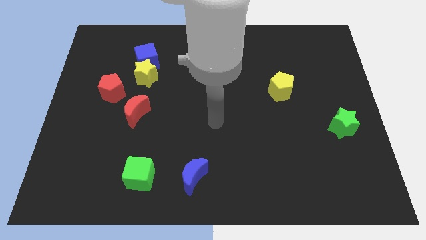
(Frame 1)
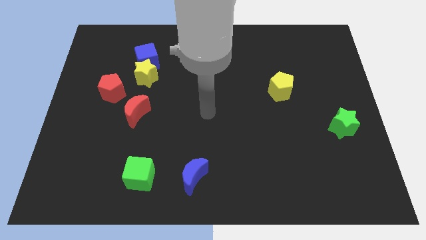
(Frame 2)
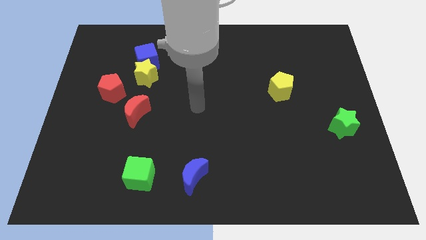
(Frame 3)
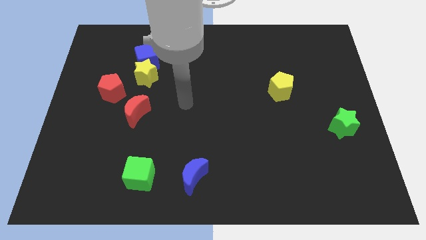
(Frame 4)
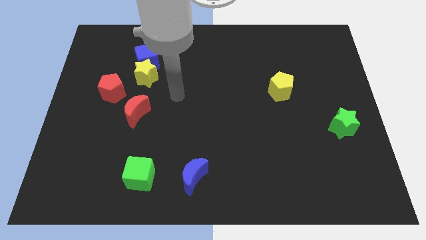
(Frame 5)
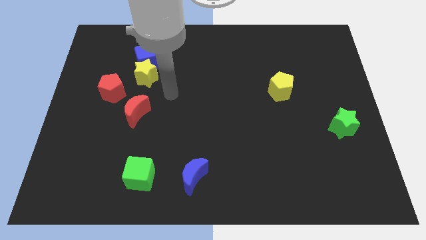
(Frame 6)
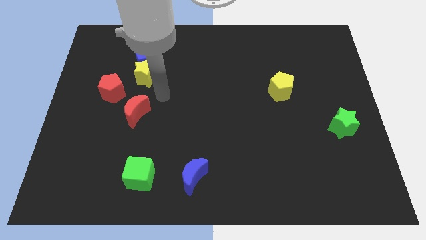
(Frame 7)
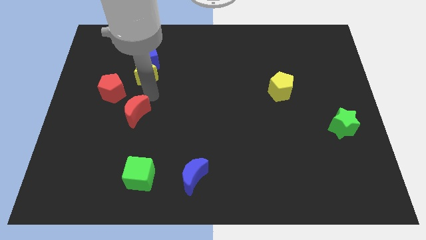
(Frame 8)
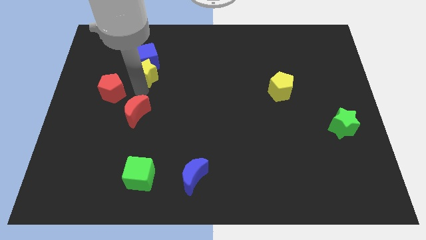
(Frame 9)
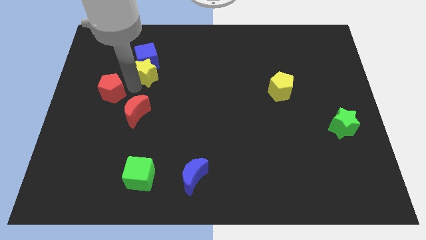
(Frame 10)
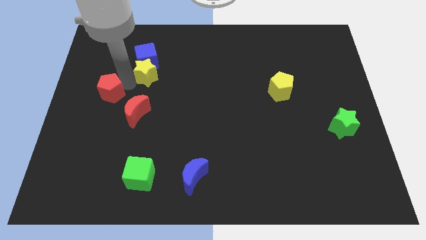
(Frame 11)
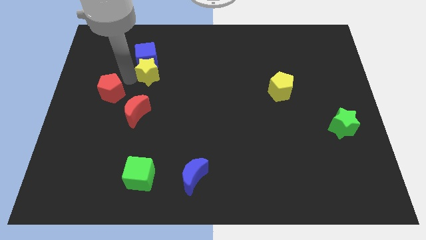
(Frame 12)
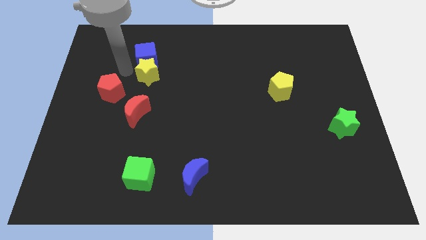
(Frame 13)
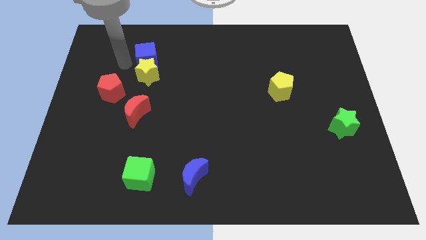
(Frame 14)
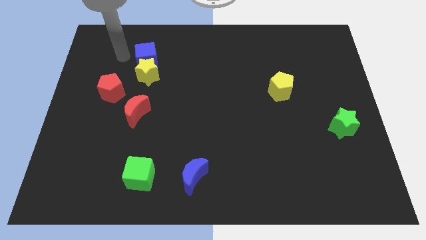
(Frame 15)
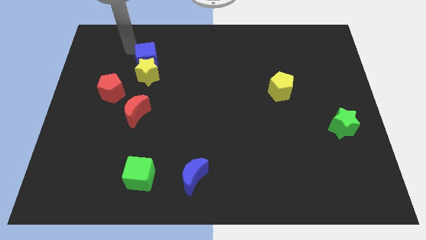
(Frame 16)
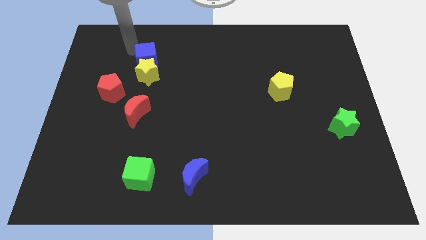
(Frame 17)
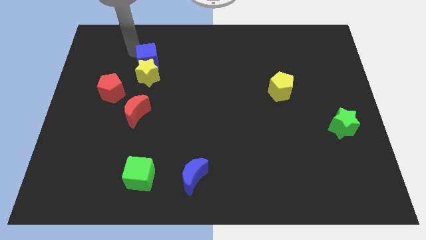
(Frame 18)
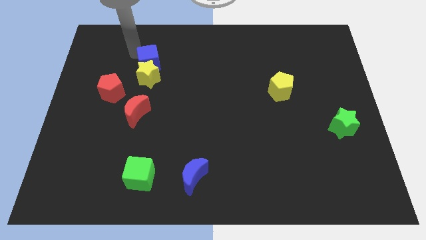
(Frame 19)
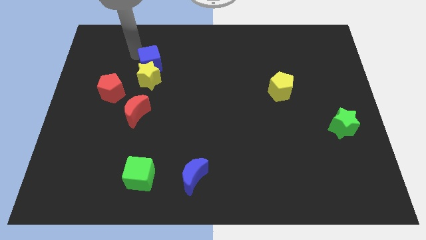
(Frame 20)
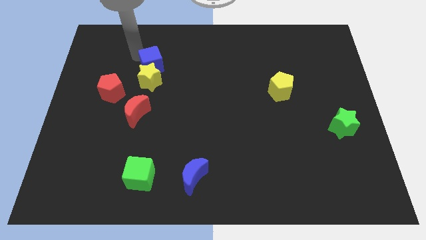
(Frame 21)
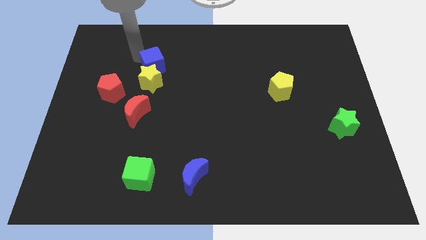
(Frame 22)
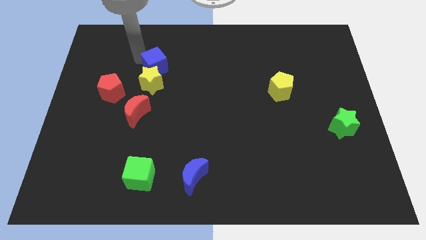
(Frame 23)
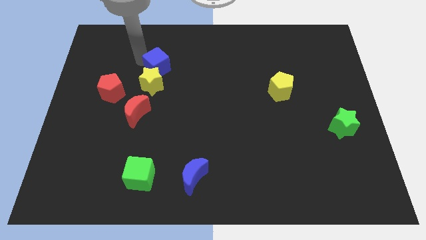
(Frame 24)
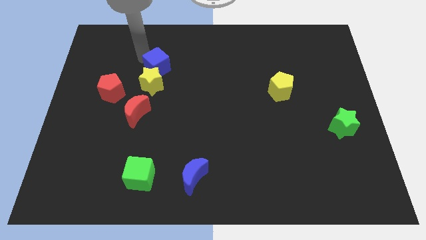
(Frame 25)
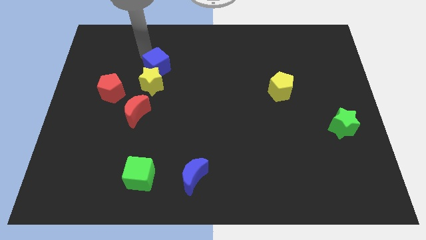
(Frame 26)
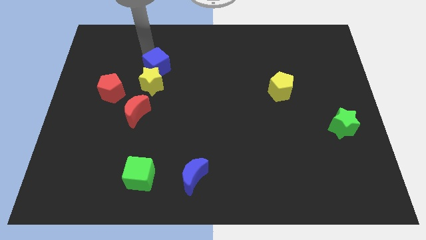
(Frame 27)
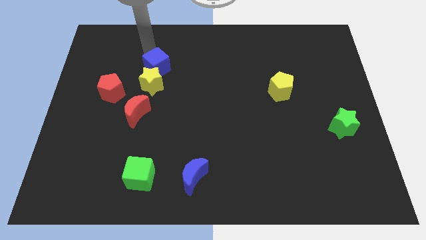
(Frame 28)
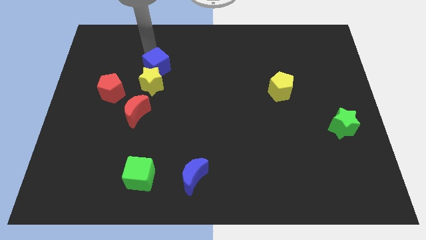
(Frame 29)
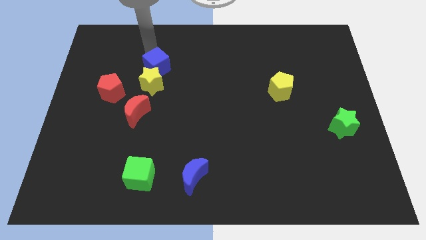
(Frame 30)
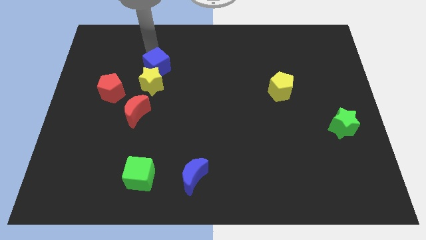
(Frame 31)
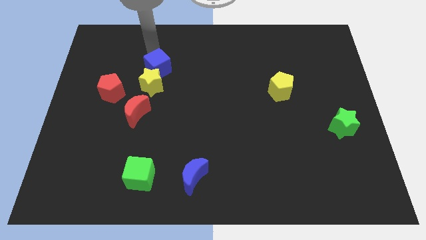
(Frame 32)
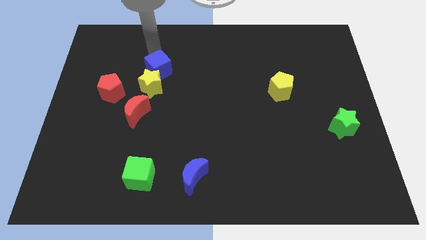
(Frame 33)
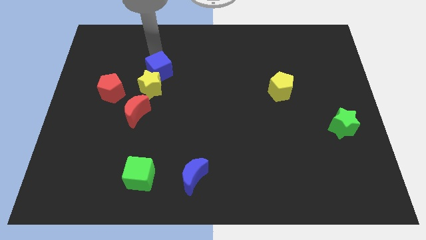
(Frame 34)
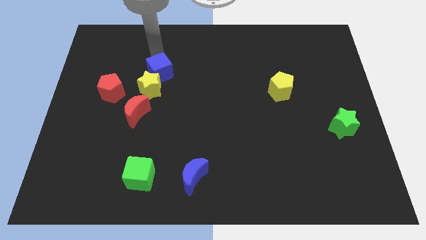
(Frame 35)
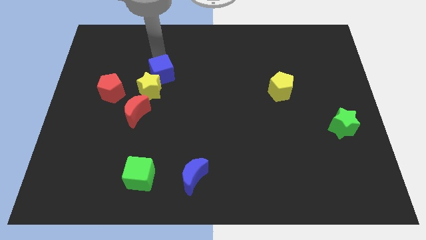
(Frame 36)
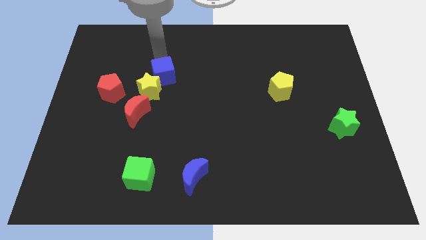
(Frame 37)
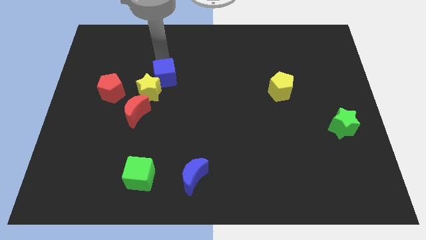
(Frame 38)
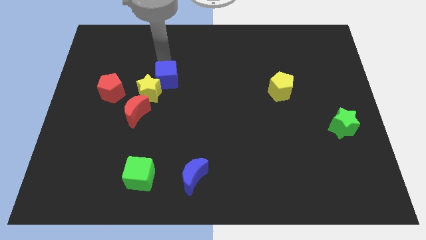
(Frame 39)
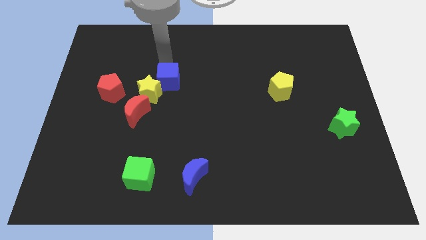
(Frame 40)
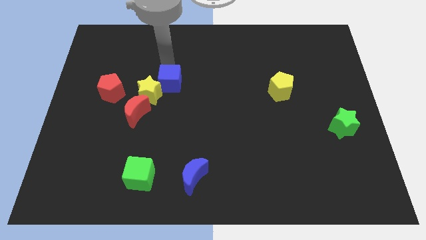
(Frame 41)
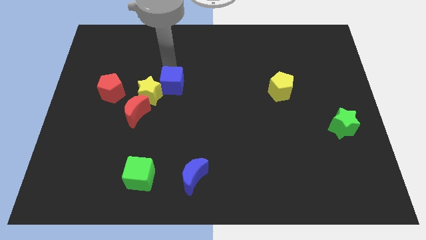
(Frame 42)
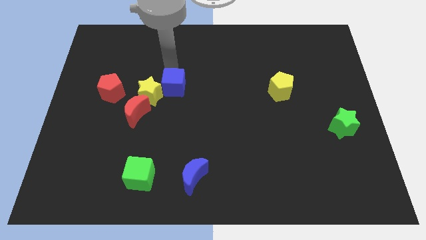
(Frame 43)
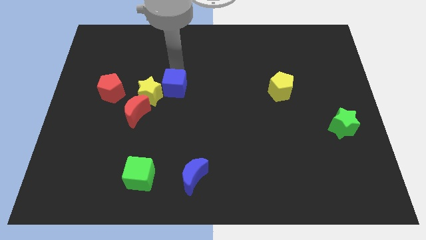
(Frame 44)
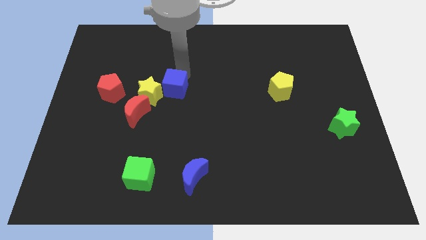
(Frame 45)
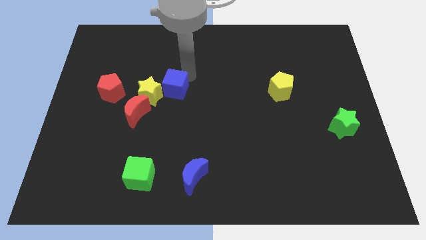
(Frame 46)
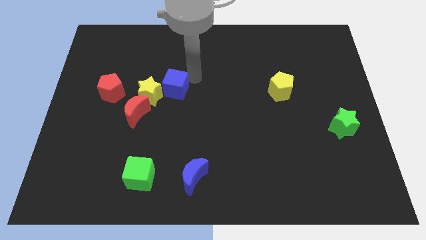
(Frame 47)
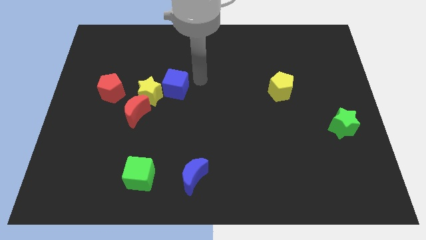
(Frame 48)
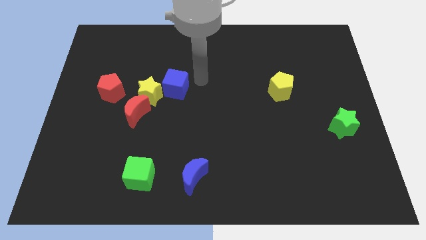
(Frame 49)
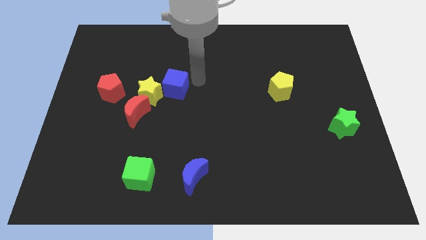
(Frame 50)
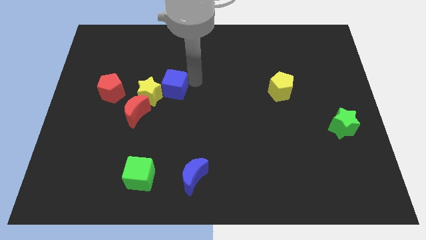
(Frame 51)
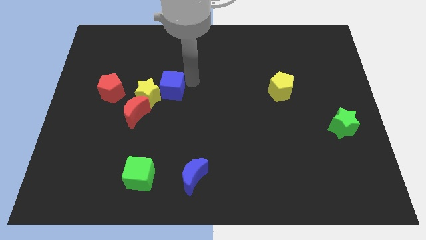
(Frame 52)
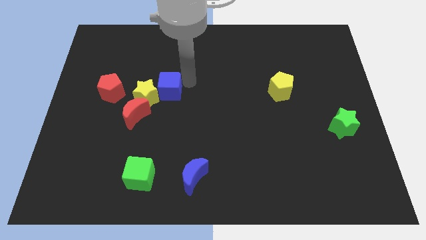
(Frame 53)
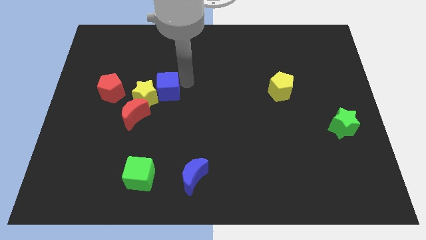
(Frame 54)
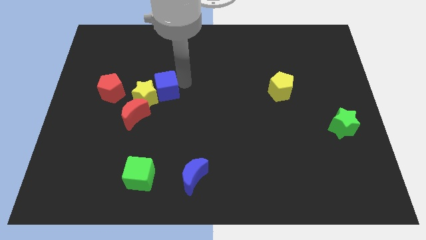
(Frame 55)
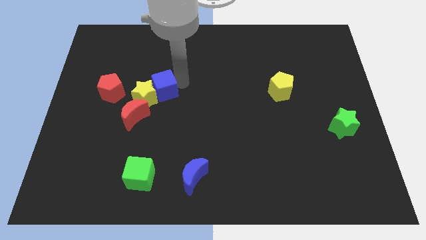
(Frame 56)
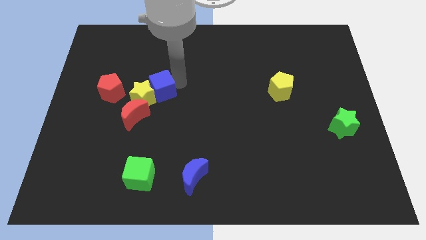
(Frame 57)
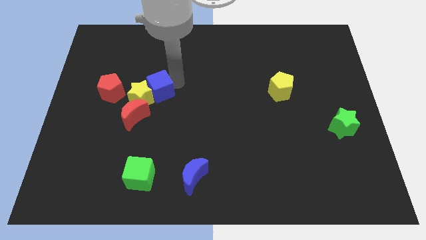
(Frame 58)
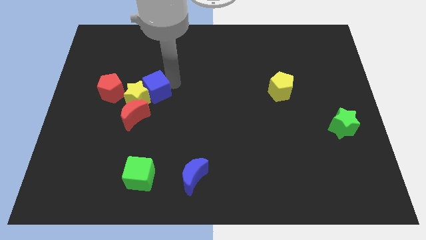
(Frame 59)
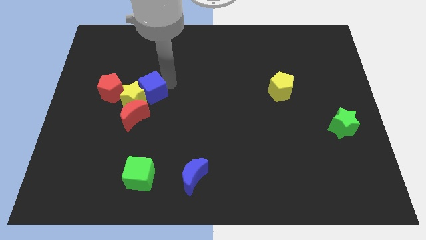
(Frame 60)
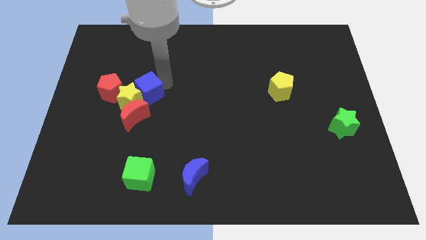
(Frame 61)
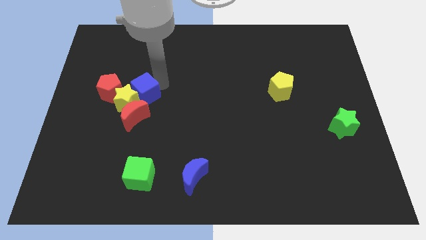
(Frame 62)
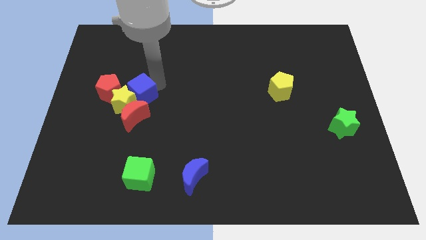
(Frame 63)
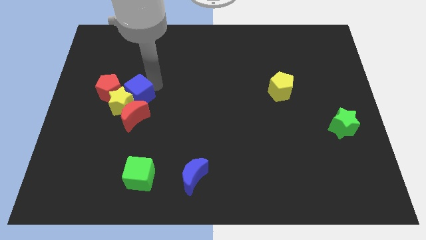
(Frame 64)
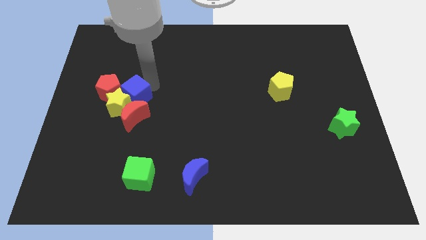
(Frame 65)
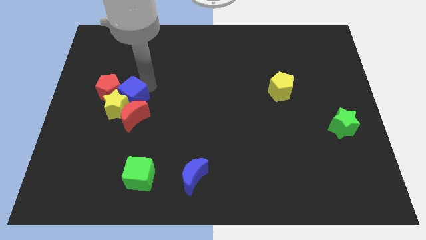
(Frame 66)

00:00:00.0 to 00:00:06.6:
put the blue cube to the red moon

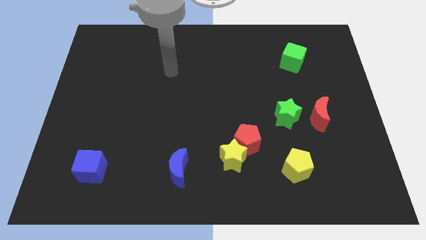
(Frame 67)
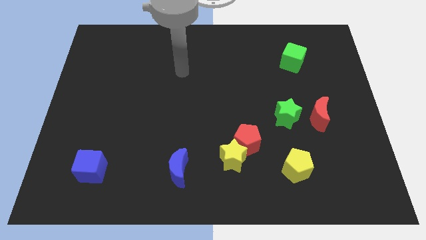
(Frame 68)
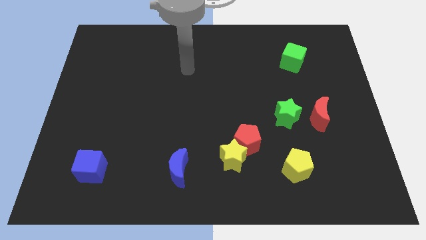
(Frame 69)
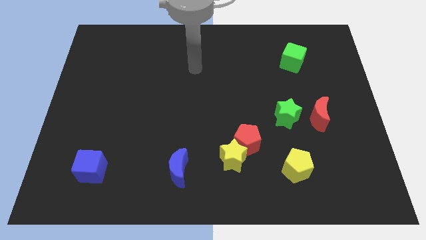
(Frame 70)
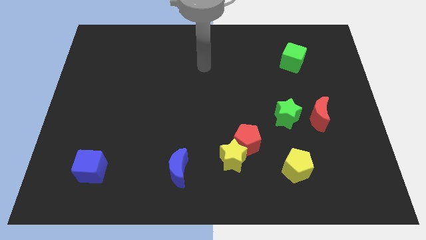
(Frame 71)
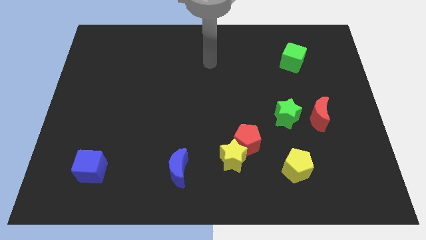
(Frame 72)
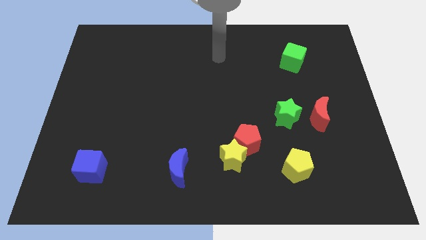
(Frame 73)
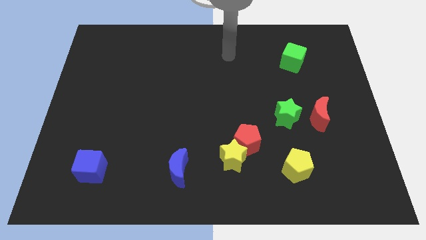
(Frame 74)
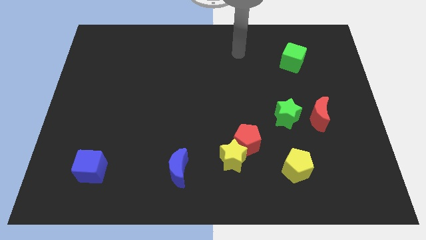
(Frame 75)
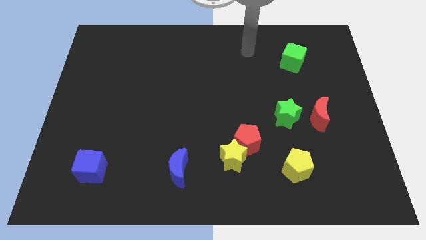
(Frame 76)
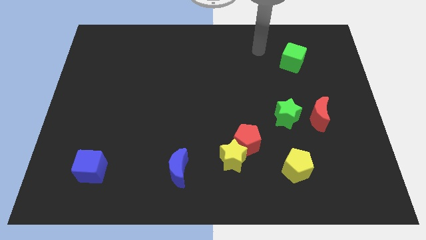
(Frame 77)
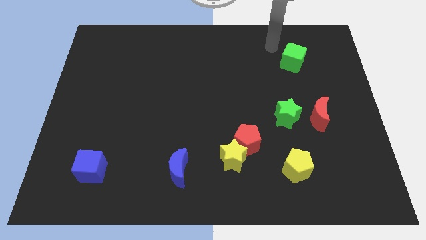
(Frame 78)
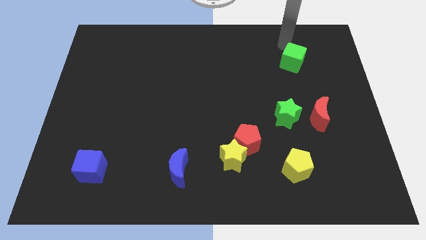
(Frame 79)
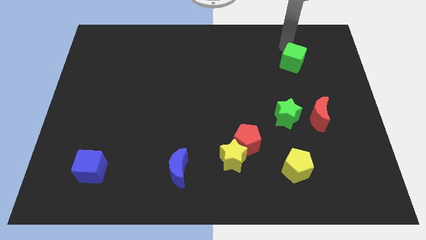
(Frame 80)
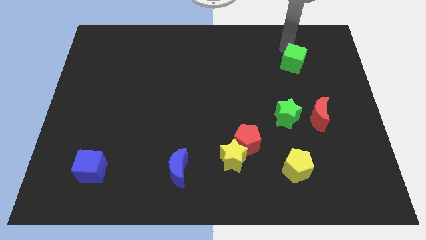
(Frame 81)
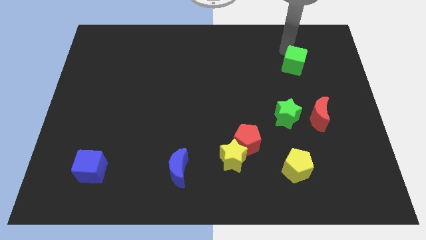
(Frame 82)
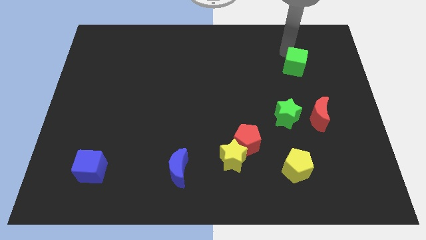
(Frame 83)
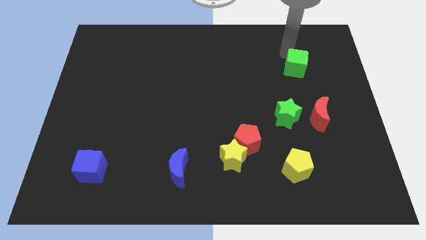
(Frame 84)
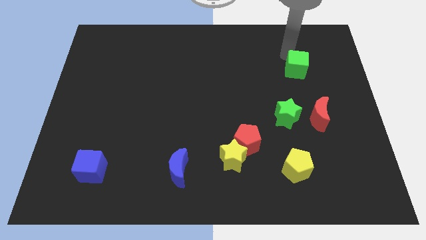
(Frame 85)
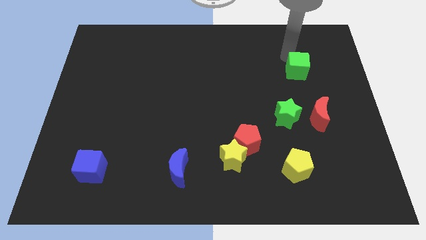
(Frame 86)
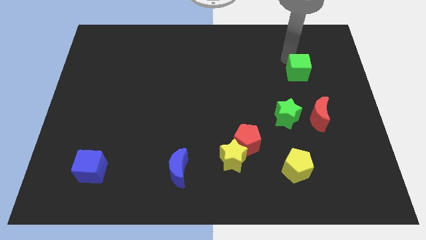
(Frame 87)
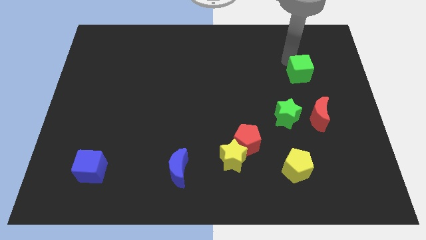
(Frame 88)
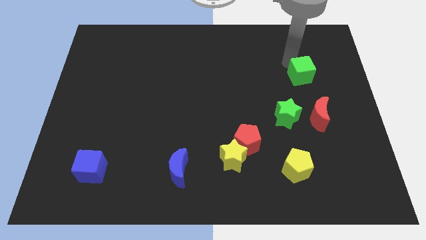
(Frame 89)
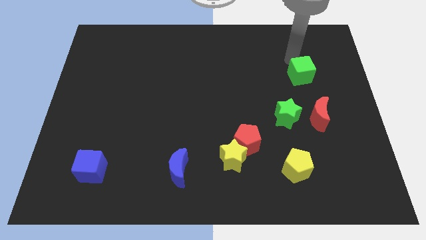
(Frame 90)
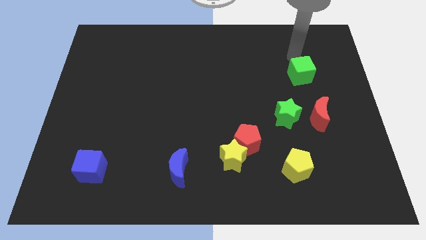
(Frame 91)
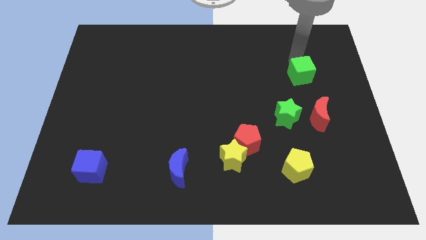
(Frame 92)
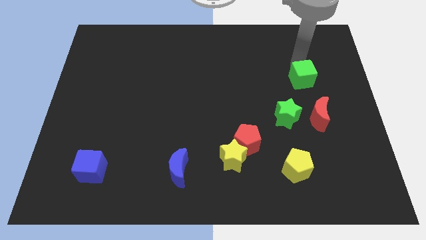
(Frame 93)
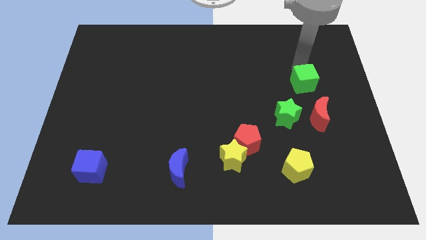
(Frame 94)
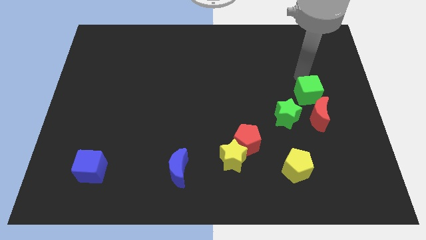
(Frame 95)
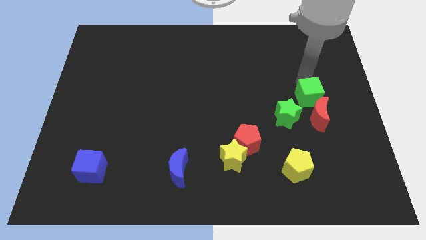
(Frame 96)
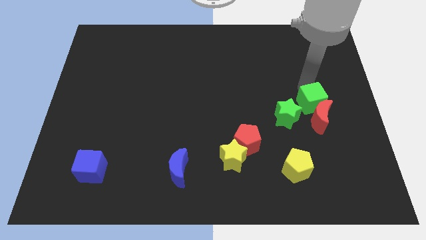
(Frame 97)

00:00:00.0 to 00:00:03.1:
slide the green cube next to the red moon
